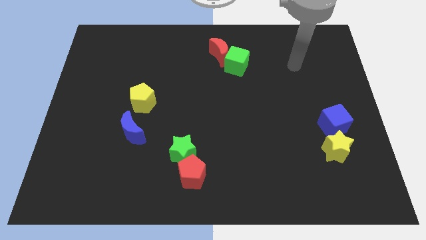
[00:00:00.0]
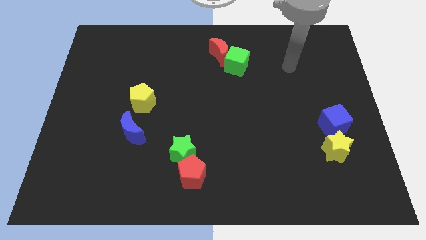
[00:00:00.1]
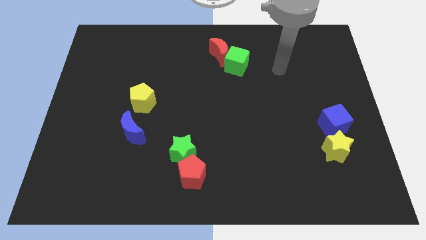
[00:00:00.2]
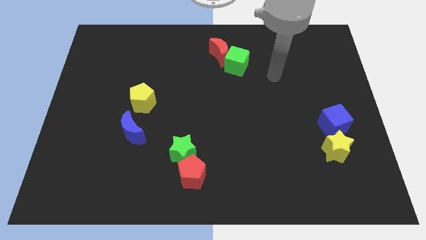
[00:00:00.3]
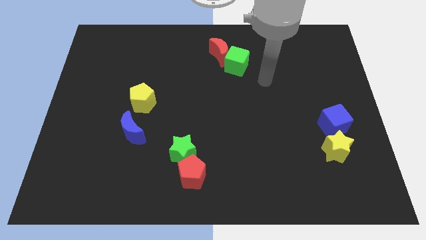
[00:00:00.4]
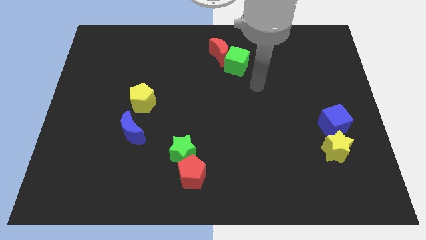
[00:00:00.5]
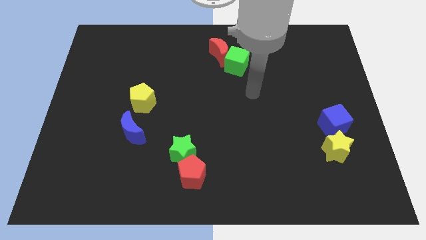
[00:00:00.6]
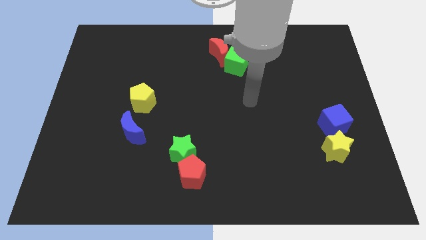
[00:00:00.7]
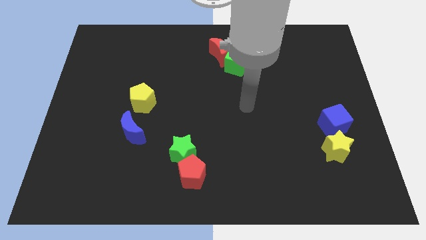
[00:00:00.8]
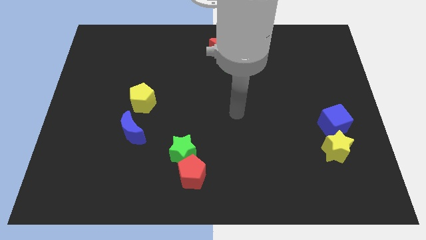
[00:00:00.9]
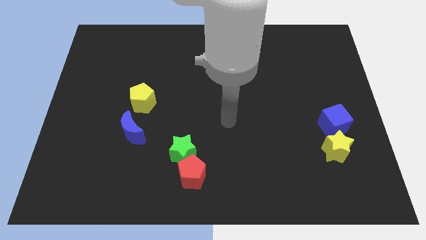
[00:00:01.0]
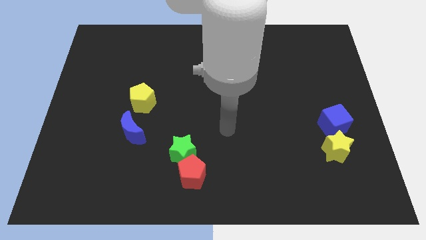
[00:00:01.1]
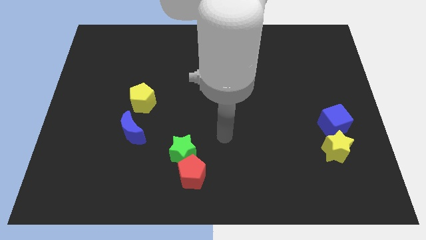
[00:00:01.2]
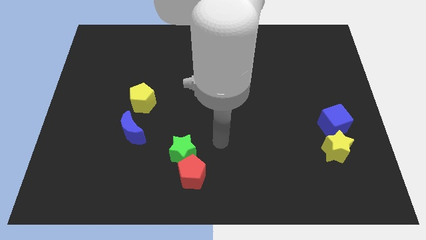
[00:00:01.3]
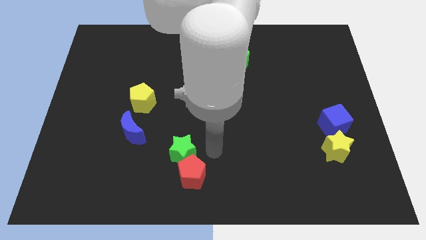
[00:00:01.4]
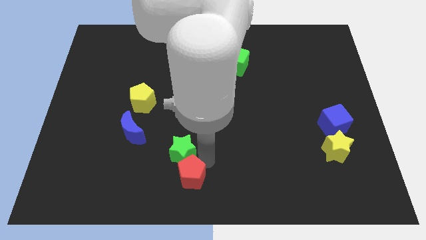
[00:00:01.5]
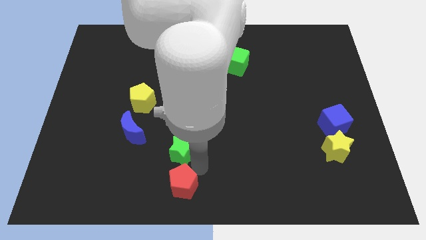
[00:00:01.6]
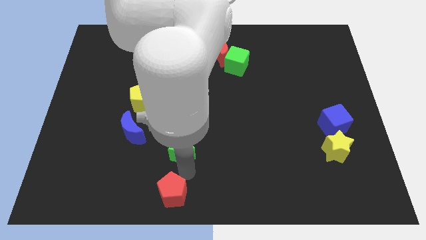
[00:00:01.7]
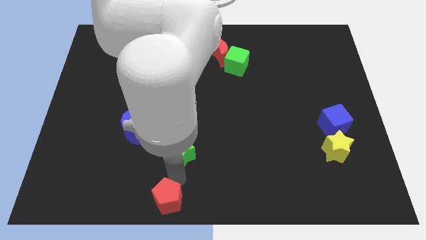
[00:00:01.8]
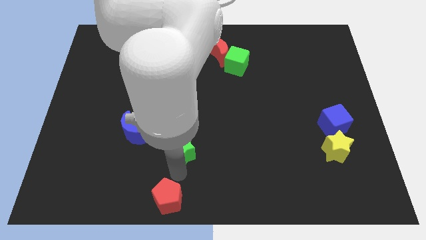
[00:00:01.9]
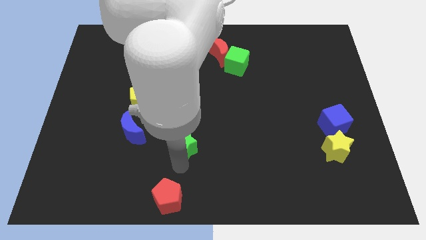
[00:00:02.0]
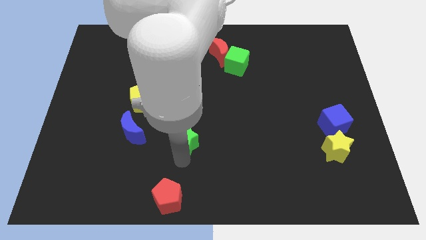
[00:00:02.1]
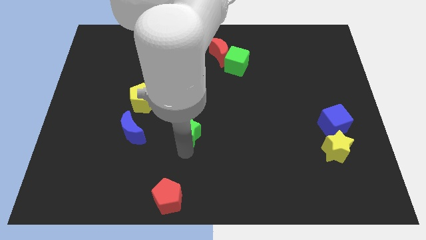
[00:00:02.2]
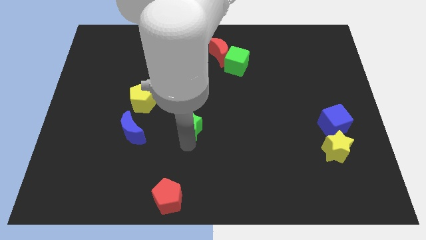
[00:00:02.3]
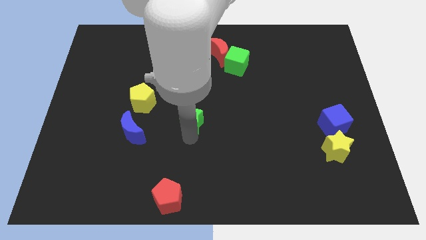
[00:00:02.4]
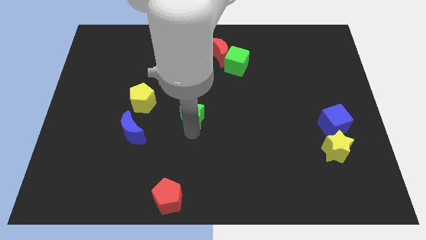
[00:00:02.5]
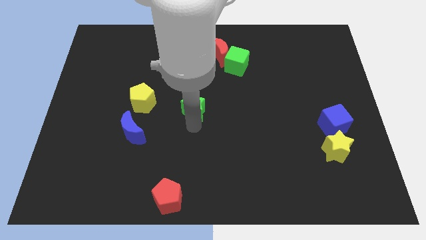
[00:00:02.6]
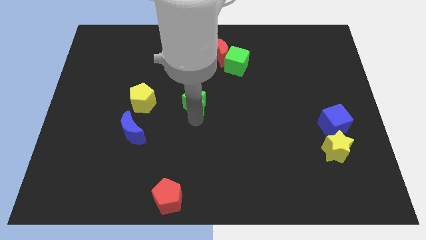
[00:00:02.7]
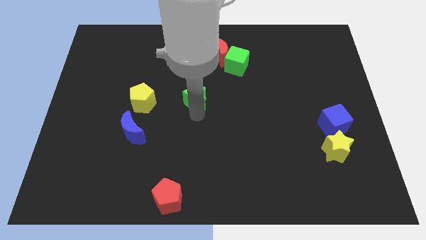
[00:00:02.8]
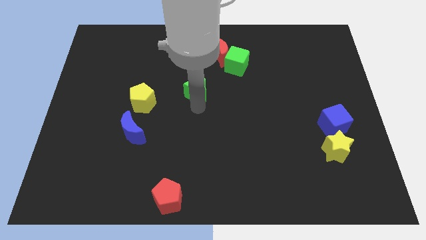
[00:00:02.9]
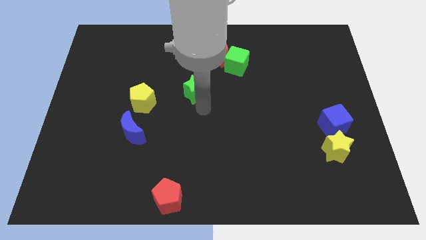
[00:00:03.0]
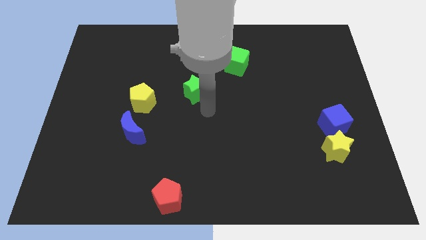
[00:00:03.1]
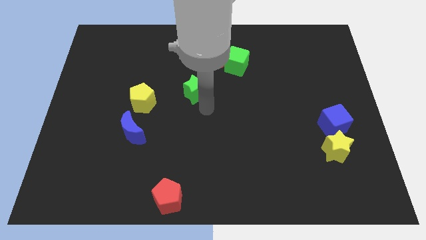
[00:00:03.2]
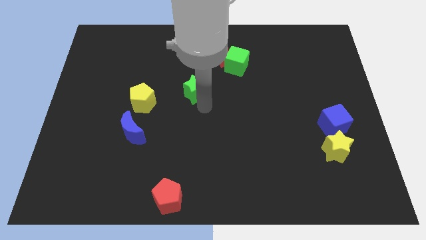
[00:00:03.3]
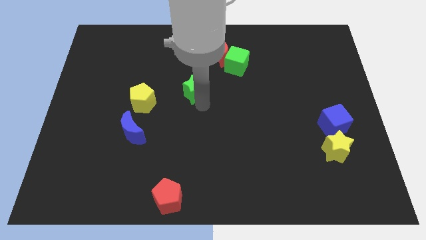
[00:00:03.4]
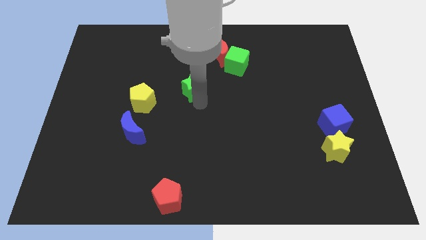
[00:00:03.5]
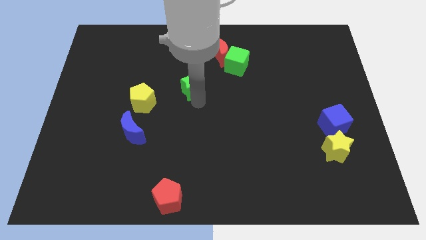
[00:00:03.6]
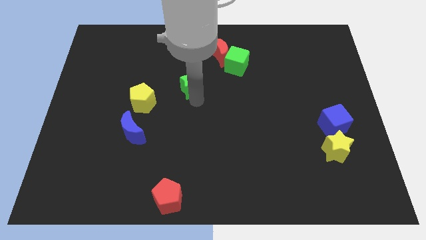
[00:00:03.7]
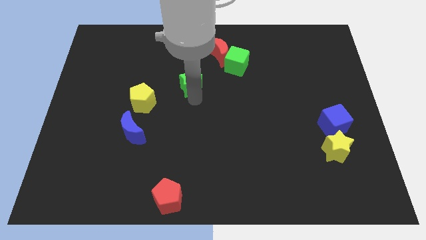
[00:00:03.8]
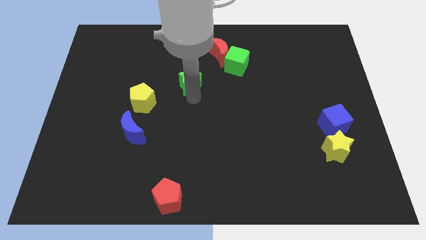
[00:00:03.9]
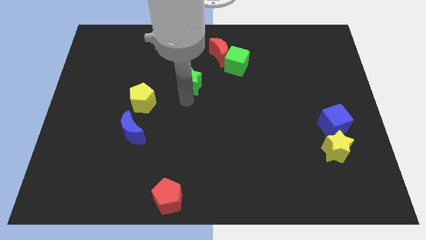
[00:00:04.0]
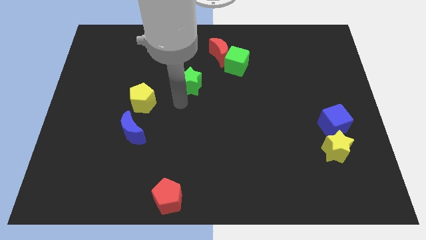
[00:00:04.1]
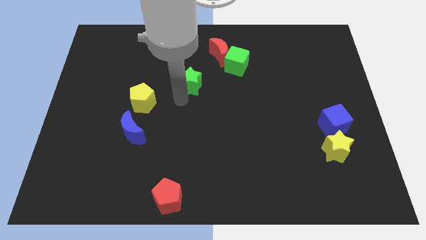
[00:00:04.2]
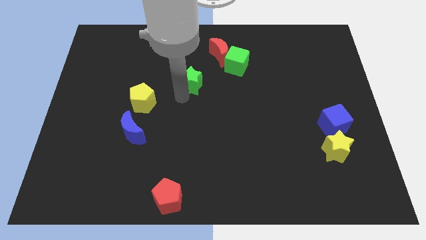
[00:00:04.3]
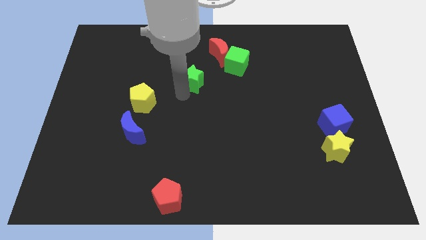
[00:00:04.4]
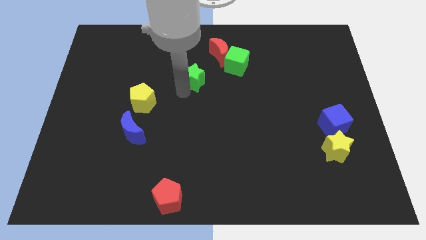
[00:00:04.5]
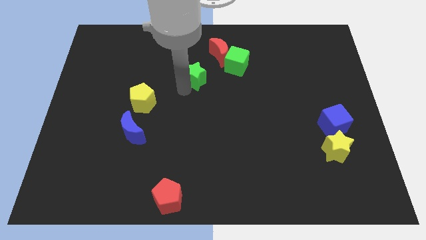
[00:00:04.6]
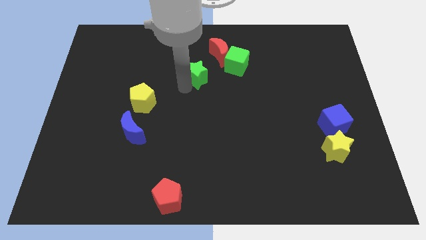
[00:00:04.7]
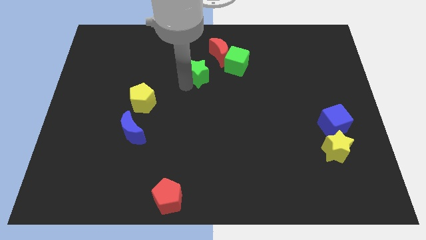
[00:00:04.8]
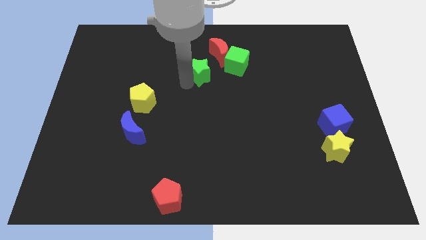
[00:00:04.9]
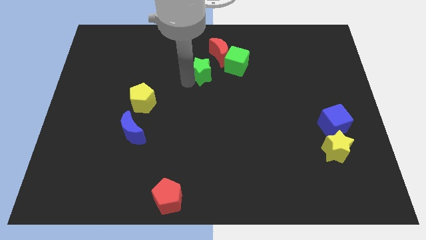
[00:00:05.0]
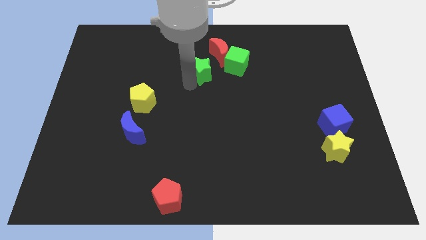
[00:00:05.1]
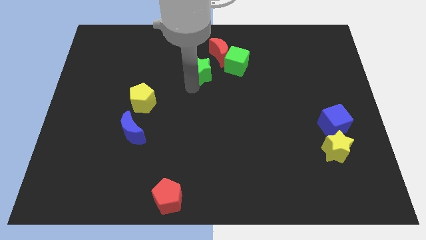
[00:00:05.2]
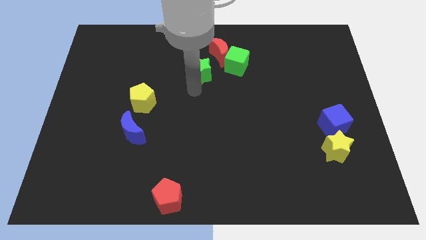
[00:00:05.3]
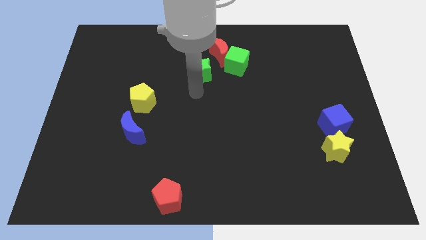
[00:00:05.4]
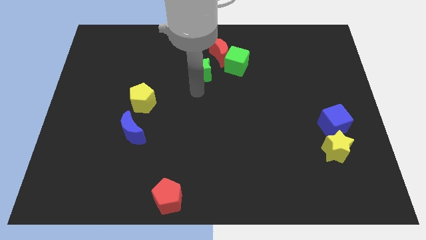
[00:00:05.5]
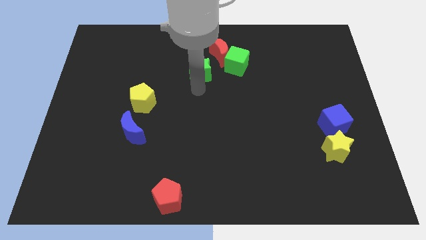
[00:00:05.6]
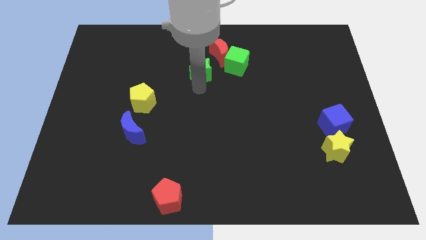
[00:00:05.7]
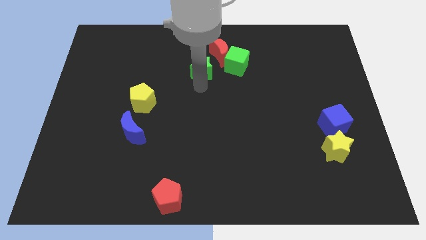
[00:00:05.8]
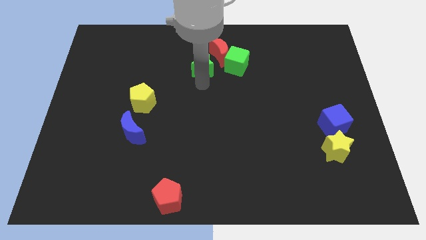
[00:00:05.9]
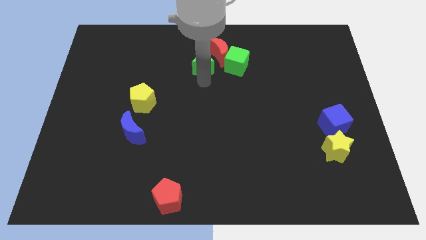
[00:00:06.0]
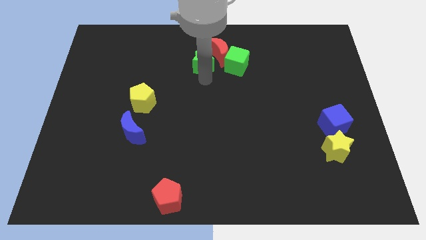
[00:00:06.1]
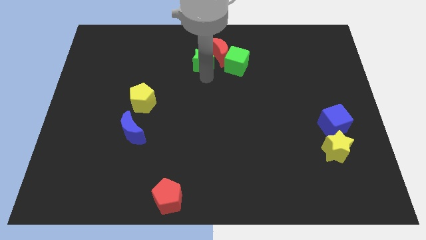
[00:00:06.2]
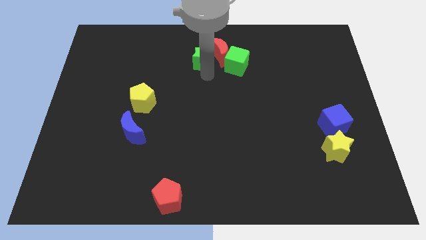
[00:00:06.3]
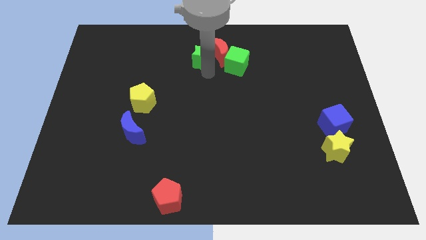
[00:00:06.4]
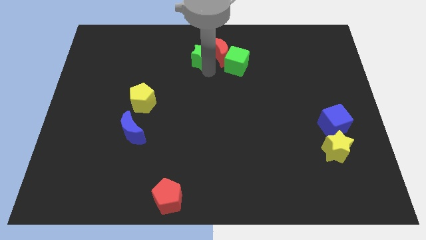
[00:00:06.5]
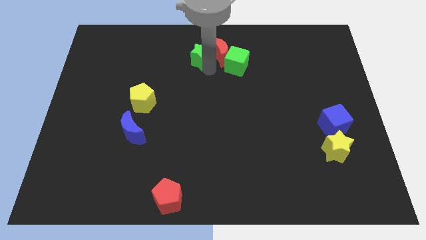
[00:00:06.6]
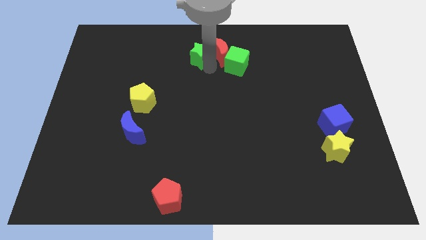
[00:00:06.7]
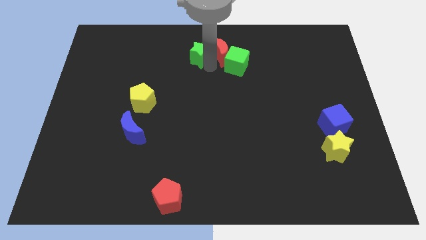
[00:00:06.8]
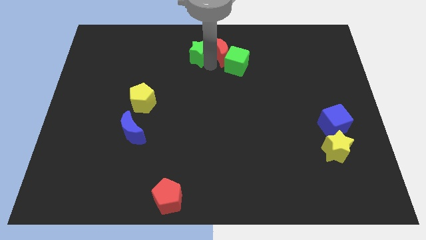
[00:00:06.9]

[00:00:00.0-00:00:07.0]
push the green star to the towards your base
